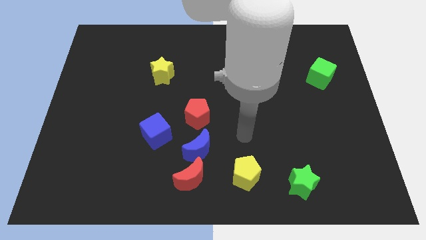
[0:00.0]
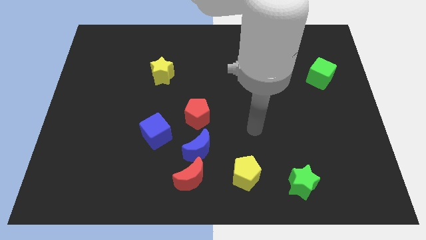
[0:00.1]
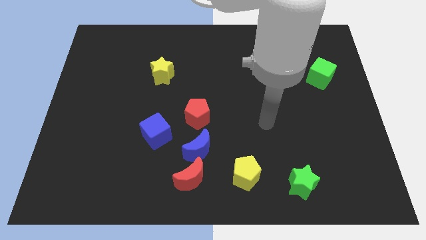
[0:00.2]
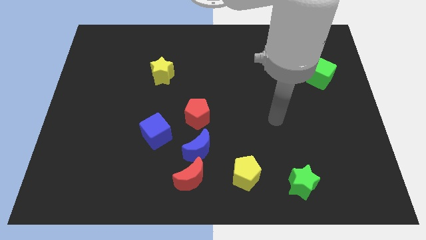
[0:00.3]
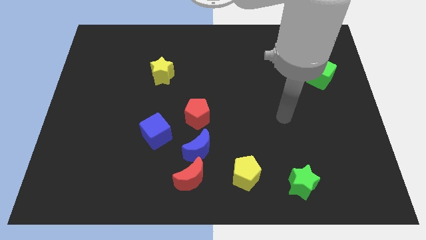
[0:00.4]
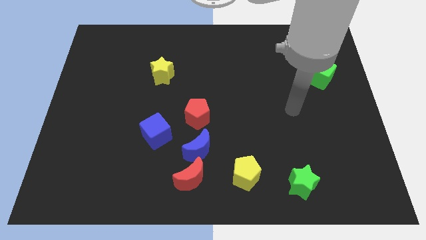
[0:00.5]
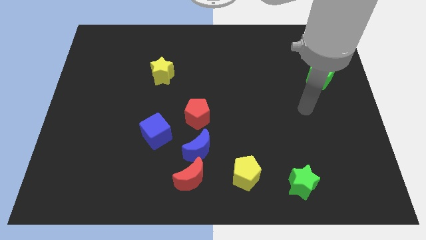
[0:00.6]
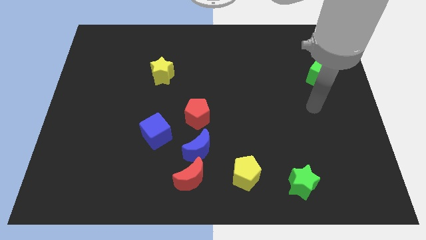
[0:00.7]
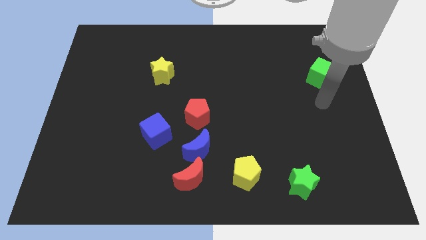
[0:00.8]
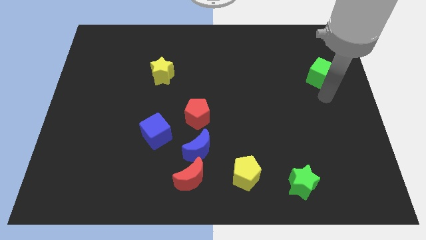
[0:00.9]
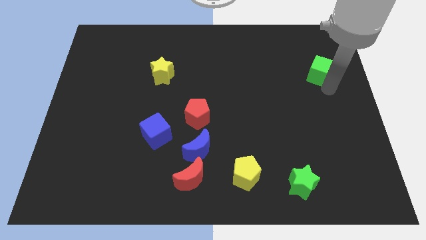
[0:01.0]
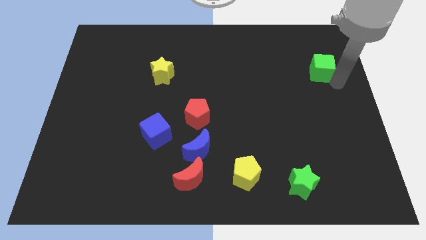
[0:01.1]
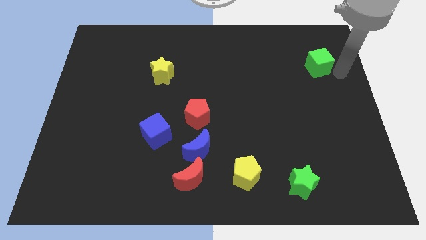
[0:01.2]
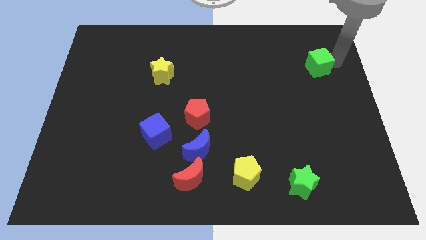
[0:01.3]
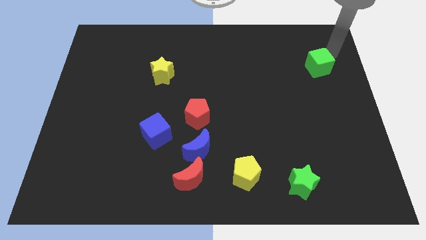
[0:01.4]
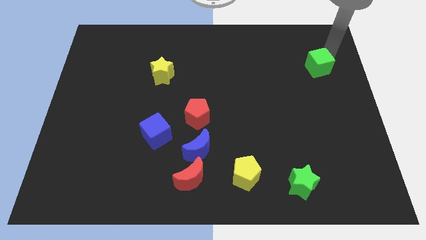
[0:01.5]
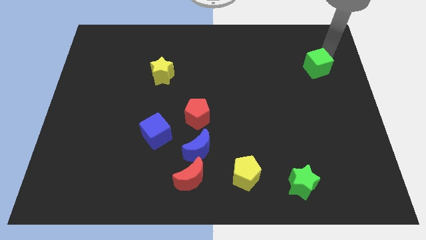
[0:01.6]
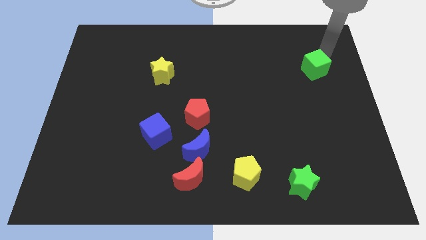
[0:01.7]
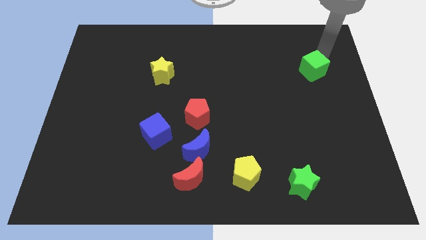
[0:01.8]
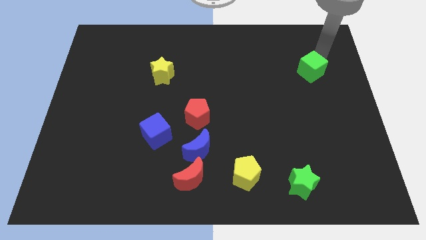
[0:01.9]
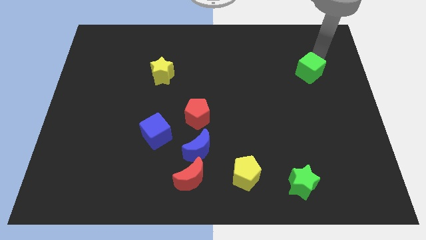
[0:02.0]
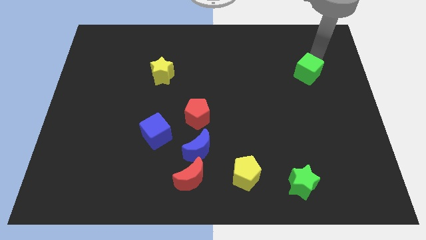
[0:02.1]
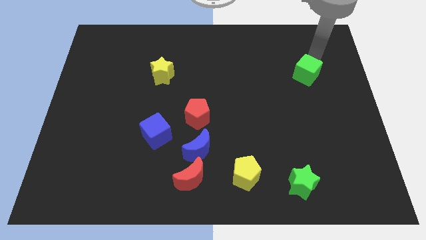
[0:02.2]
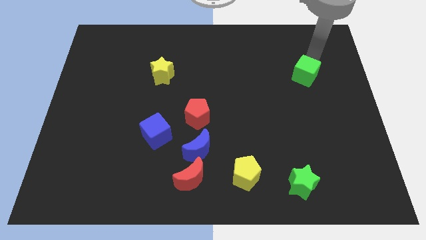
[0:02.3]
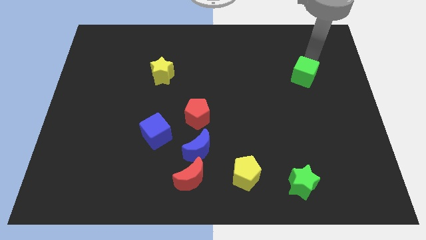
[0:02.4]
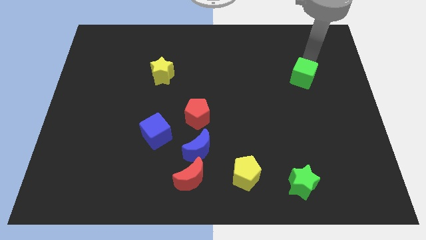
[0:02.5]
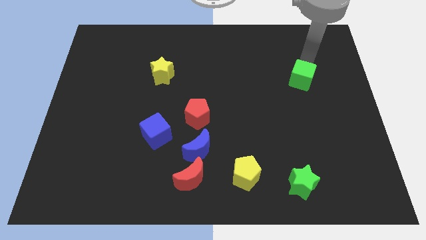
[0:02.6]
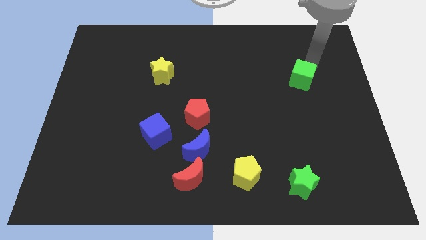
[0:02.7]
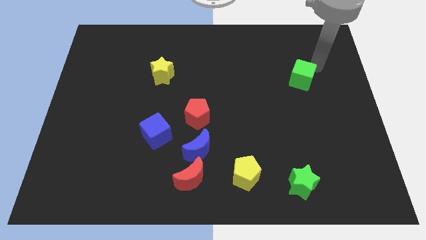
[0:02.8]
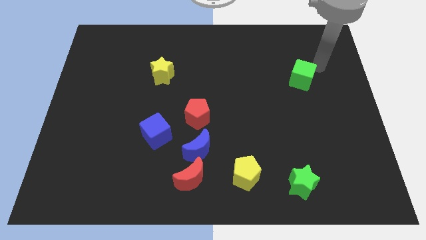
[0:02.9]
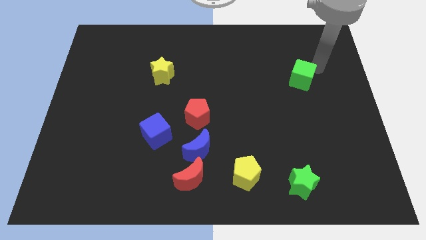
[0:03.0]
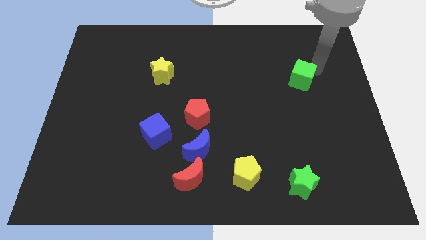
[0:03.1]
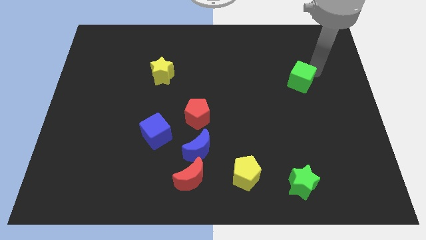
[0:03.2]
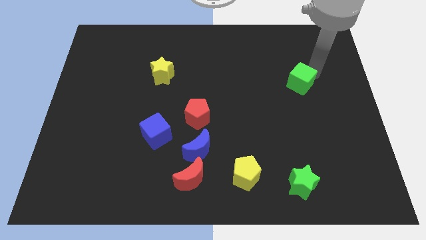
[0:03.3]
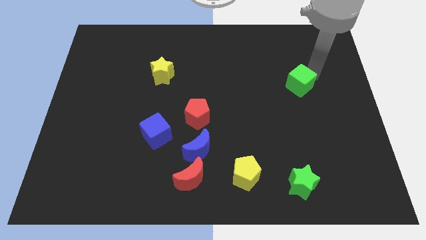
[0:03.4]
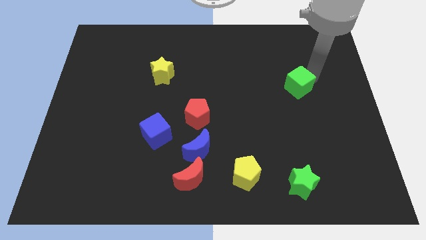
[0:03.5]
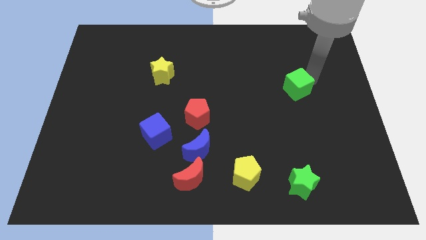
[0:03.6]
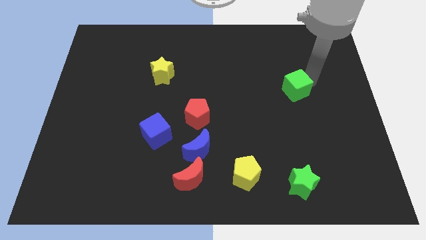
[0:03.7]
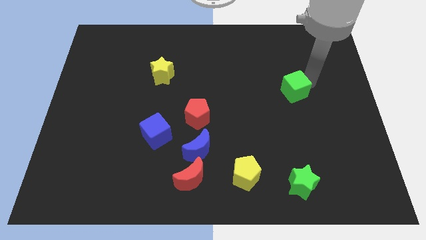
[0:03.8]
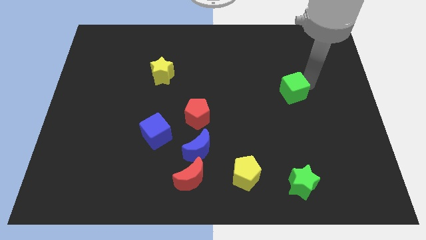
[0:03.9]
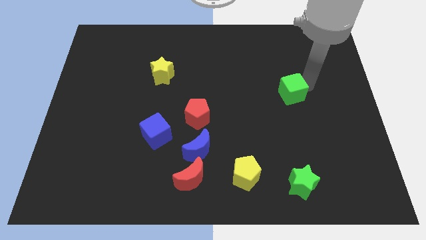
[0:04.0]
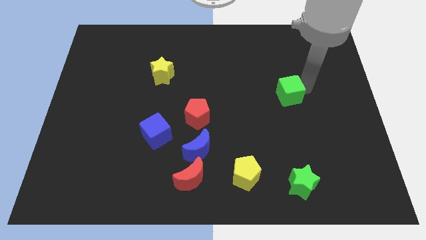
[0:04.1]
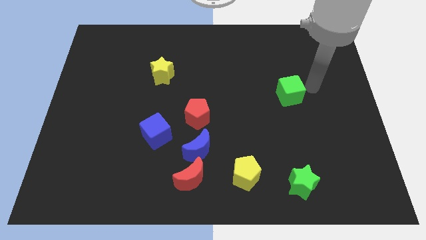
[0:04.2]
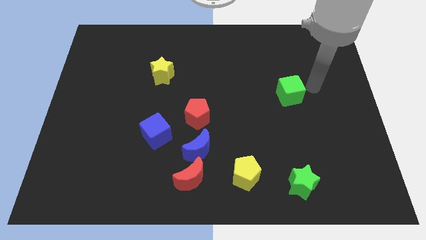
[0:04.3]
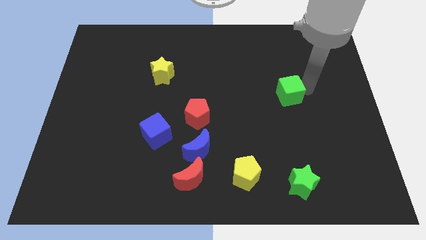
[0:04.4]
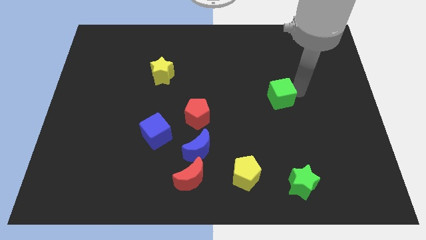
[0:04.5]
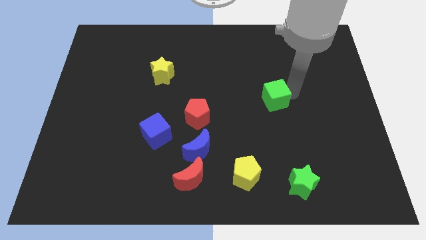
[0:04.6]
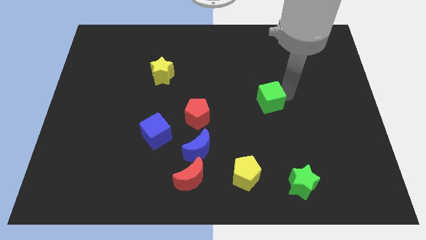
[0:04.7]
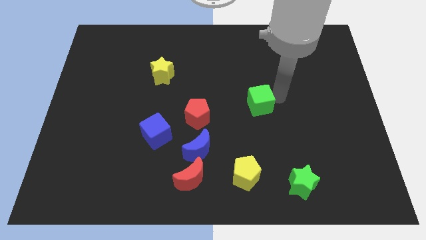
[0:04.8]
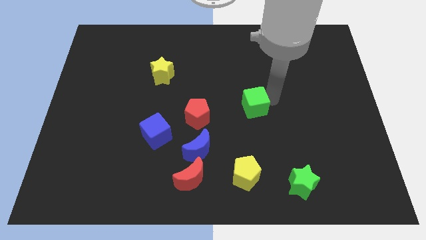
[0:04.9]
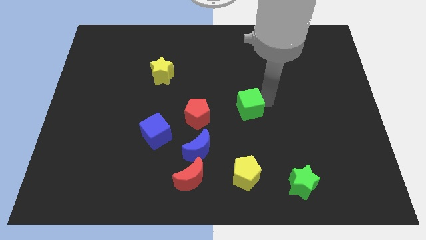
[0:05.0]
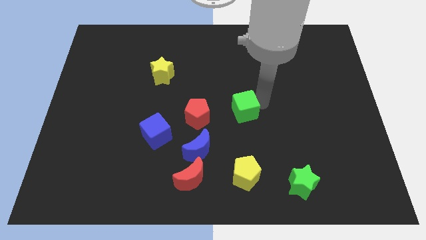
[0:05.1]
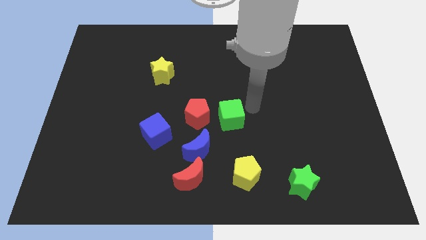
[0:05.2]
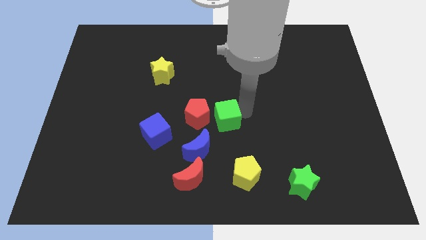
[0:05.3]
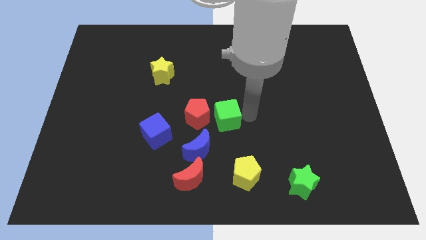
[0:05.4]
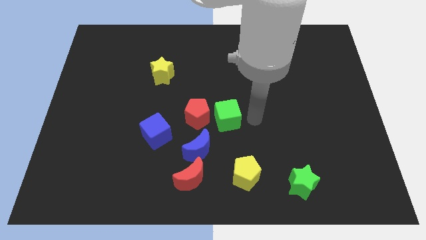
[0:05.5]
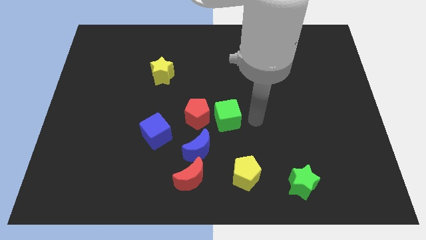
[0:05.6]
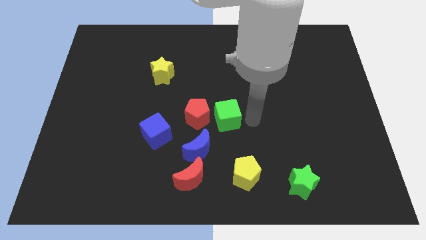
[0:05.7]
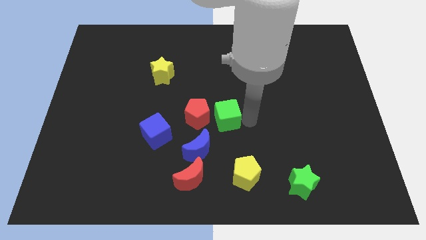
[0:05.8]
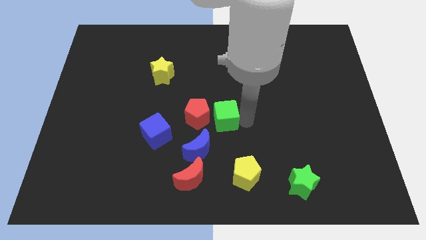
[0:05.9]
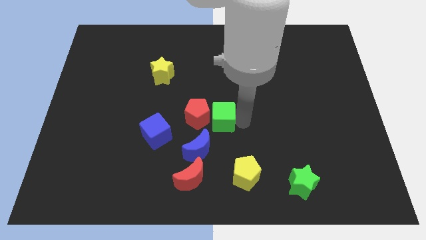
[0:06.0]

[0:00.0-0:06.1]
move the green cube towards the red pentagon
